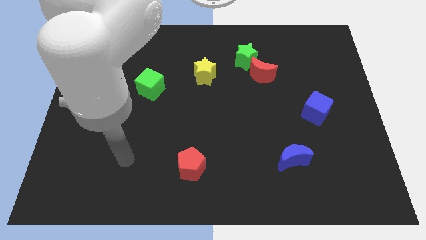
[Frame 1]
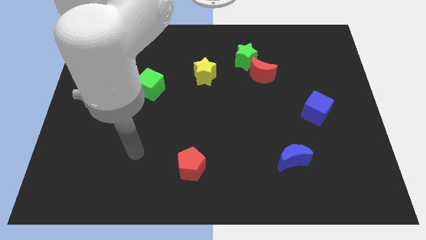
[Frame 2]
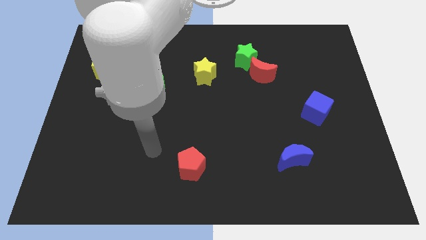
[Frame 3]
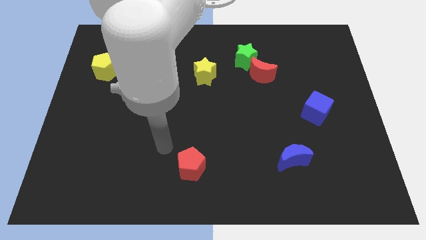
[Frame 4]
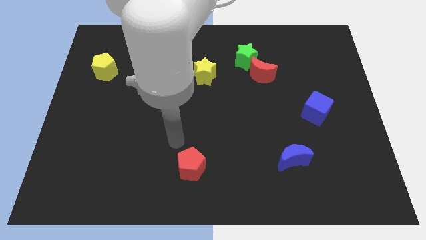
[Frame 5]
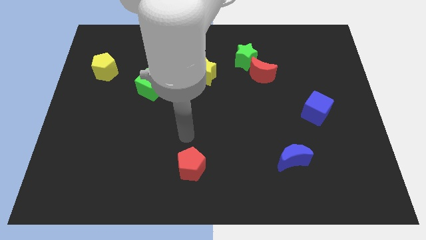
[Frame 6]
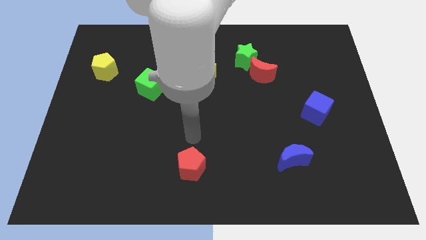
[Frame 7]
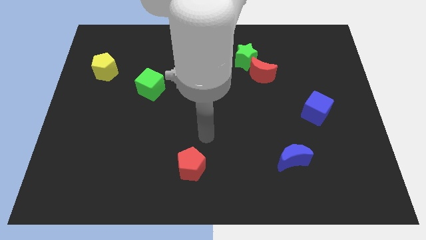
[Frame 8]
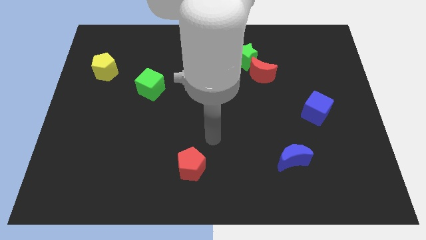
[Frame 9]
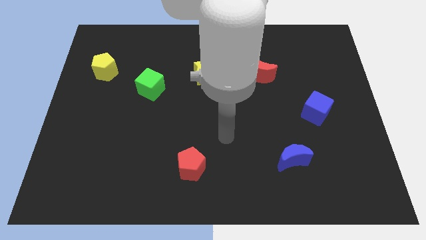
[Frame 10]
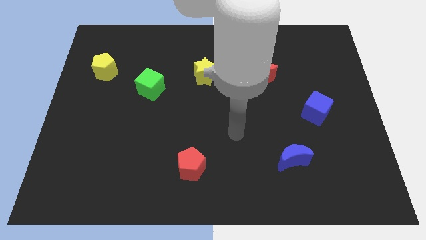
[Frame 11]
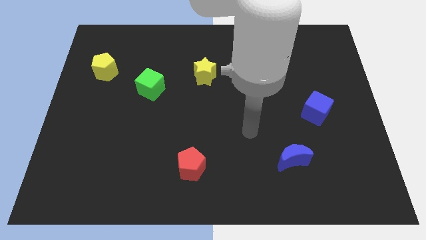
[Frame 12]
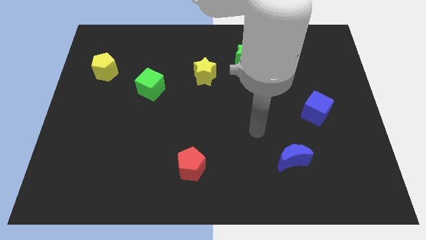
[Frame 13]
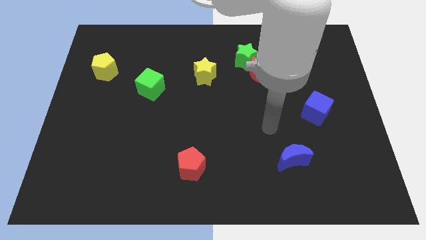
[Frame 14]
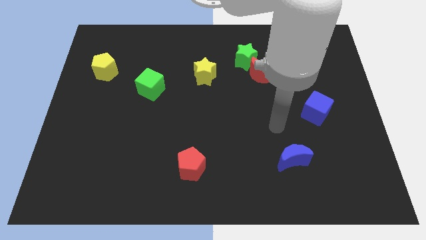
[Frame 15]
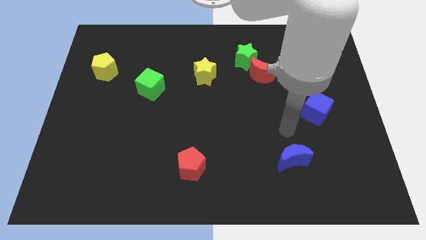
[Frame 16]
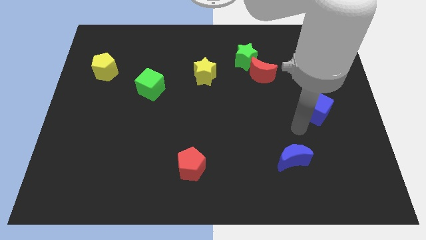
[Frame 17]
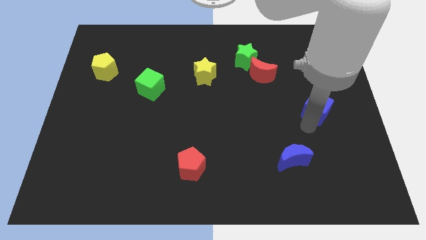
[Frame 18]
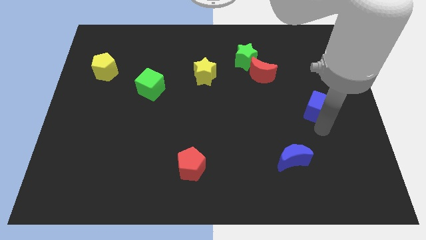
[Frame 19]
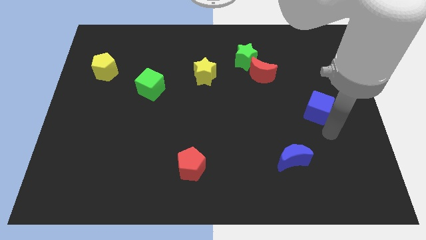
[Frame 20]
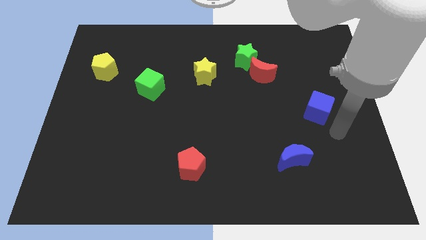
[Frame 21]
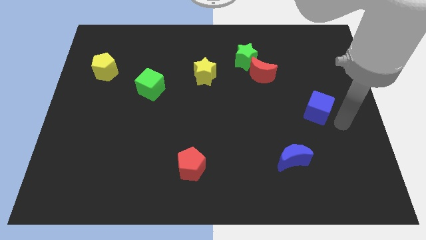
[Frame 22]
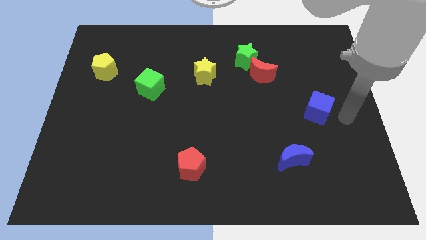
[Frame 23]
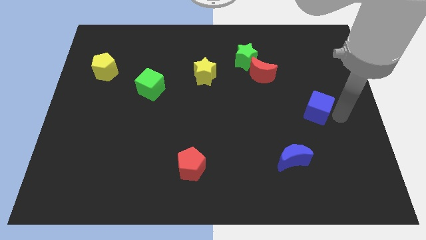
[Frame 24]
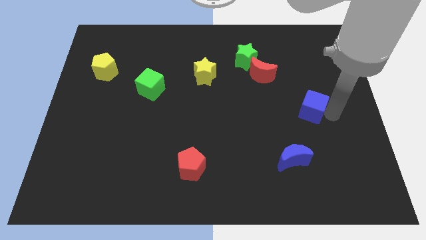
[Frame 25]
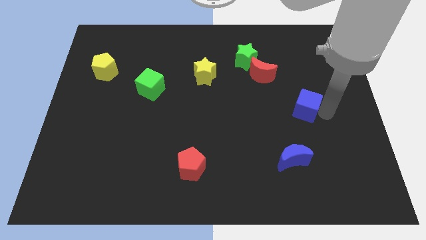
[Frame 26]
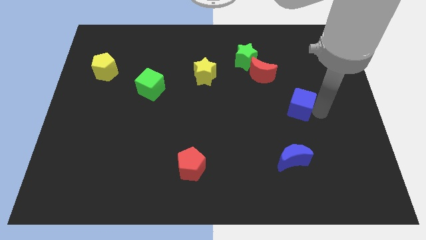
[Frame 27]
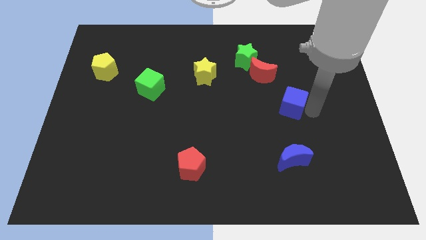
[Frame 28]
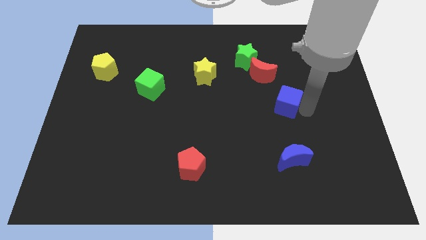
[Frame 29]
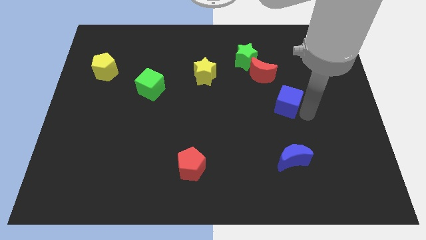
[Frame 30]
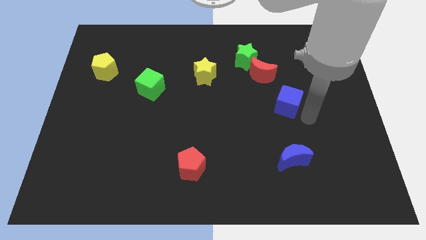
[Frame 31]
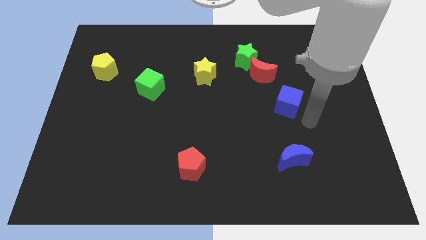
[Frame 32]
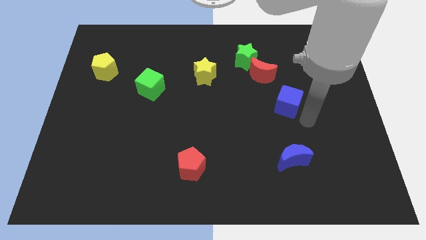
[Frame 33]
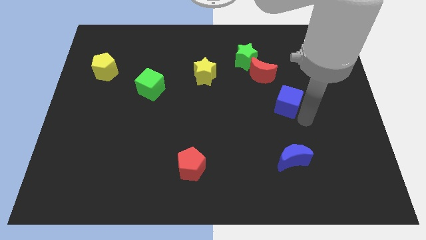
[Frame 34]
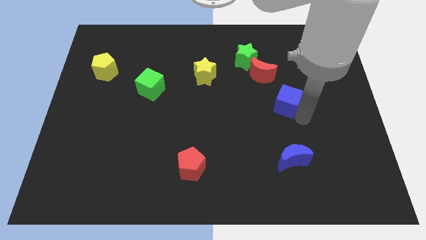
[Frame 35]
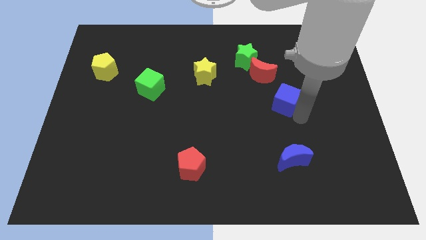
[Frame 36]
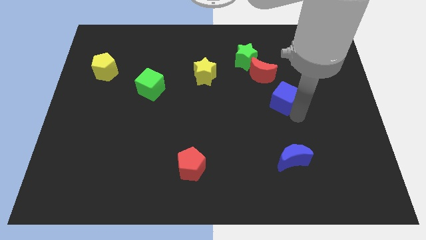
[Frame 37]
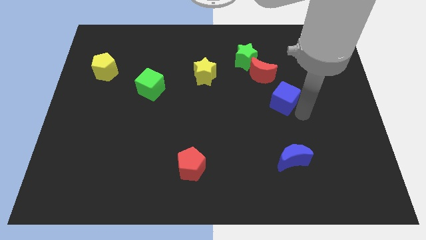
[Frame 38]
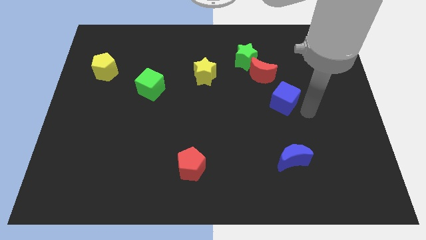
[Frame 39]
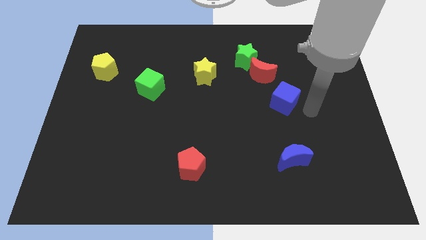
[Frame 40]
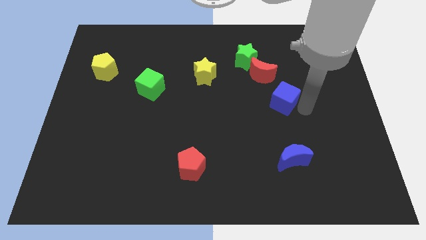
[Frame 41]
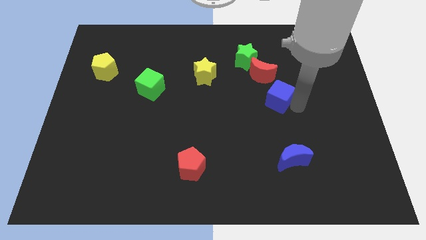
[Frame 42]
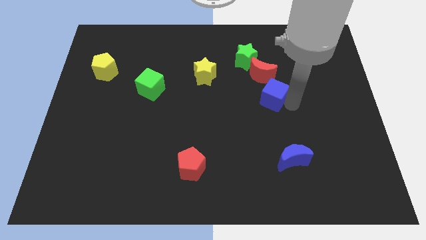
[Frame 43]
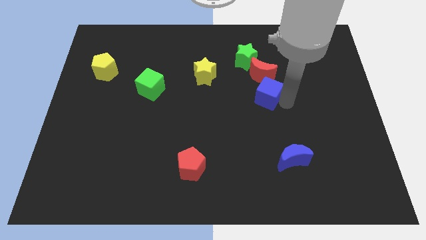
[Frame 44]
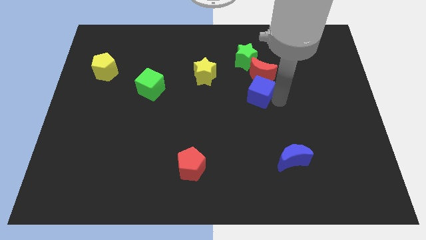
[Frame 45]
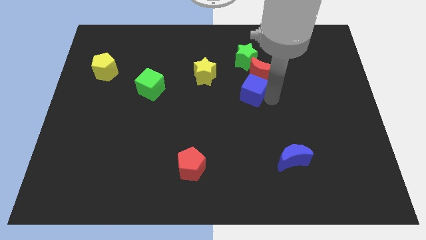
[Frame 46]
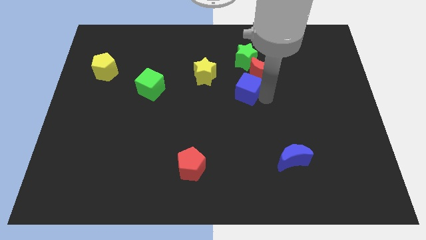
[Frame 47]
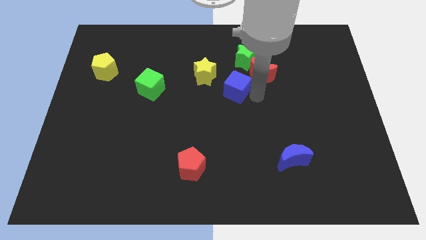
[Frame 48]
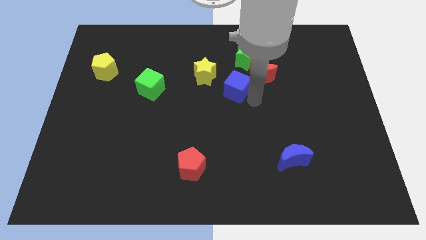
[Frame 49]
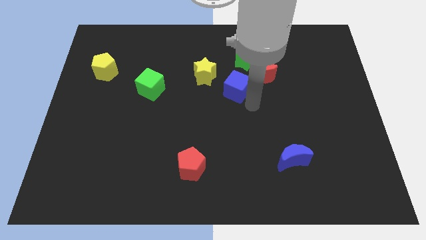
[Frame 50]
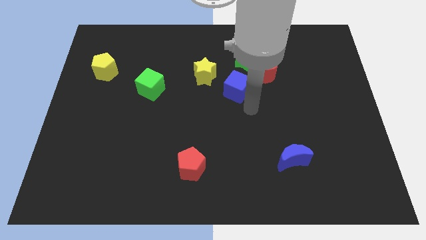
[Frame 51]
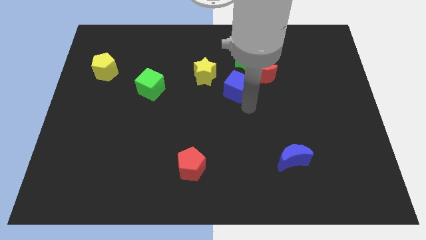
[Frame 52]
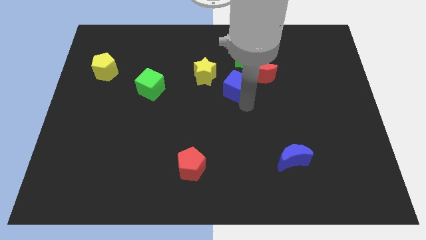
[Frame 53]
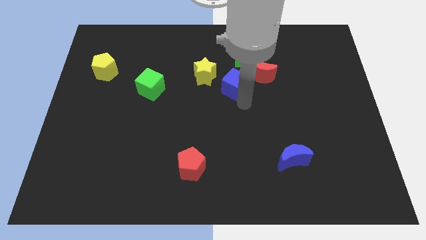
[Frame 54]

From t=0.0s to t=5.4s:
move the blue cube to the bottom left of the green star

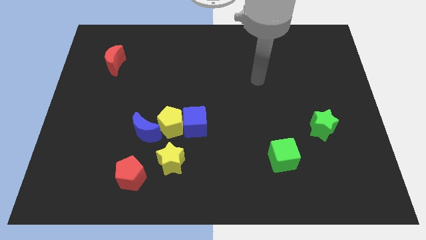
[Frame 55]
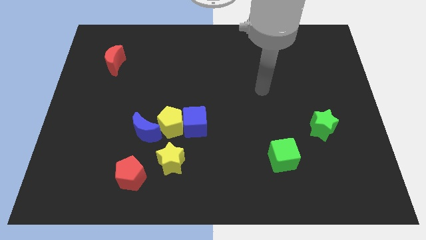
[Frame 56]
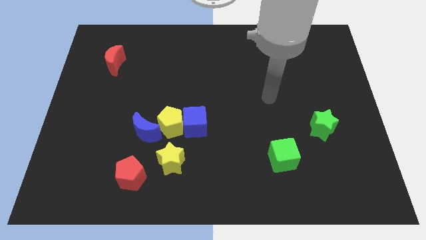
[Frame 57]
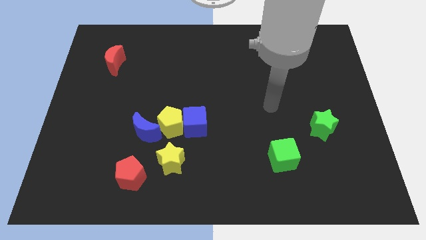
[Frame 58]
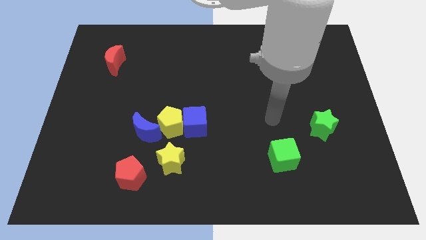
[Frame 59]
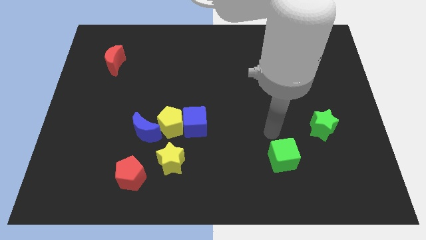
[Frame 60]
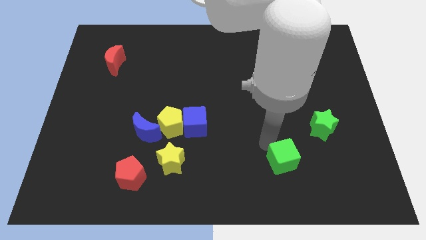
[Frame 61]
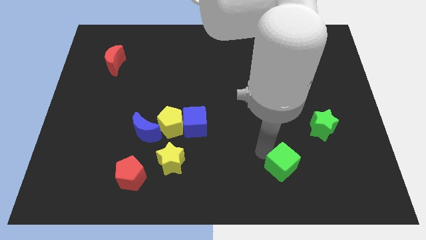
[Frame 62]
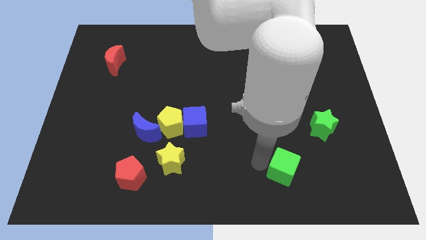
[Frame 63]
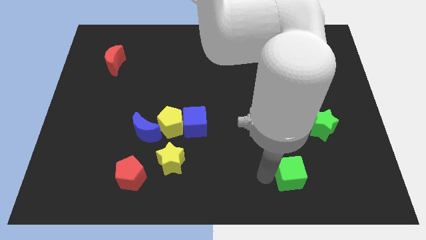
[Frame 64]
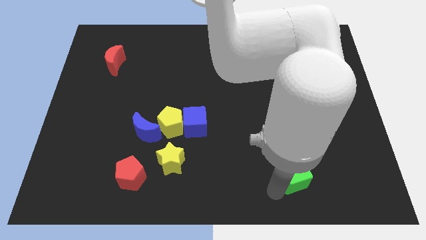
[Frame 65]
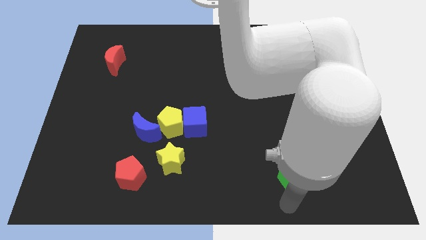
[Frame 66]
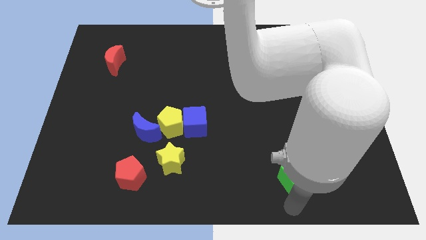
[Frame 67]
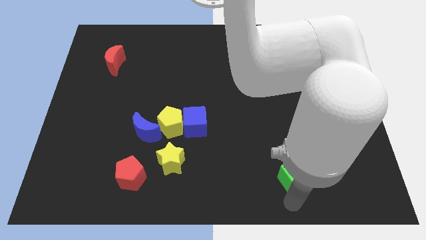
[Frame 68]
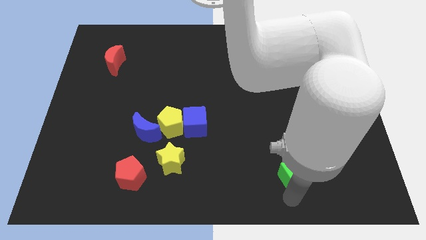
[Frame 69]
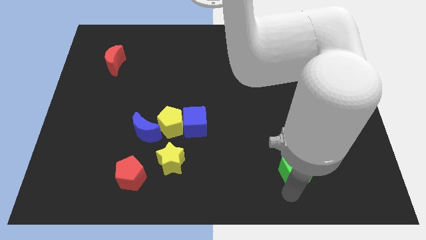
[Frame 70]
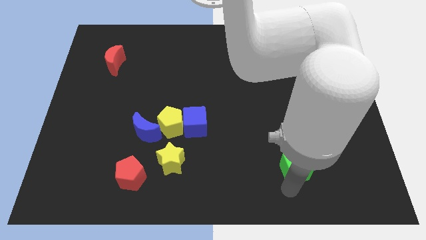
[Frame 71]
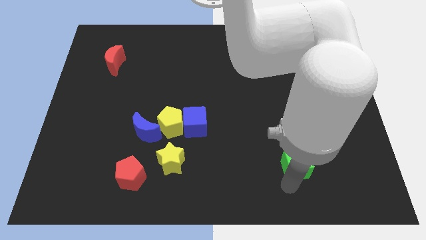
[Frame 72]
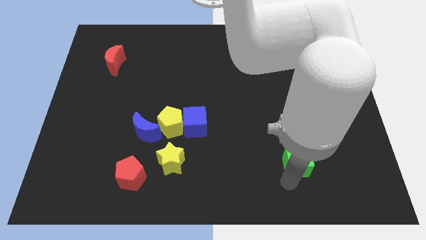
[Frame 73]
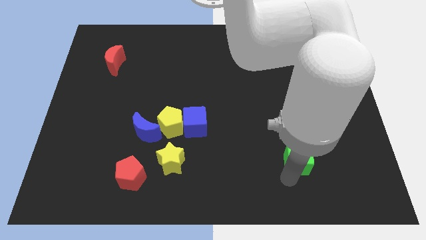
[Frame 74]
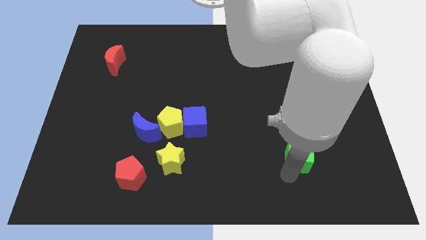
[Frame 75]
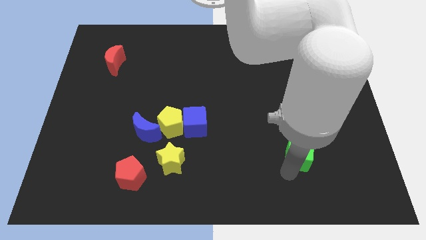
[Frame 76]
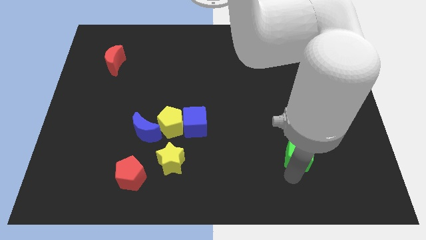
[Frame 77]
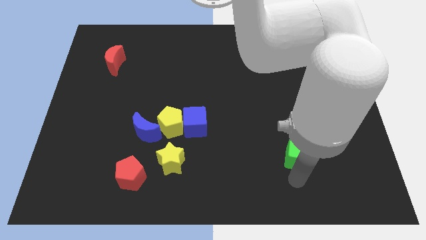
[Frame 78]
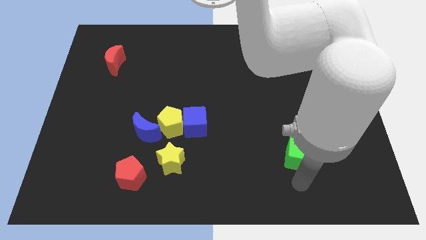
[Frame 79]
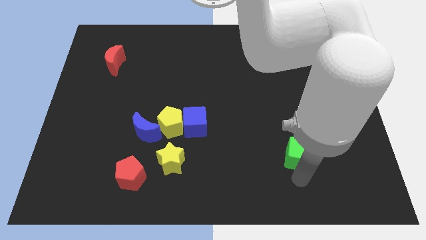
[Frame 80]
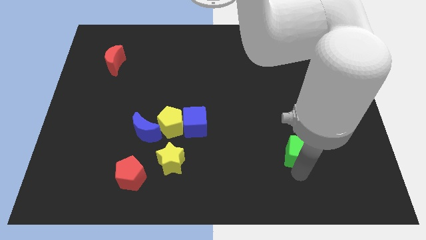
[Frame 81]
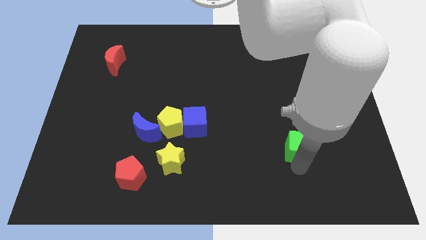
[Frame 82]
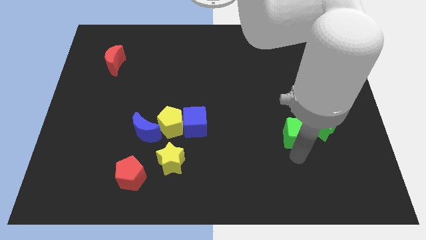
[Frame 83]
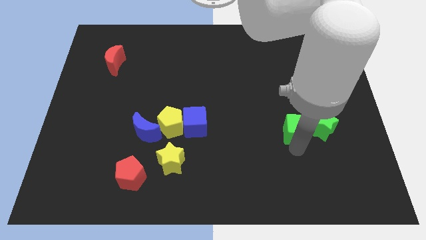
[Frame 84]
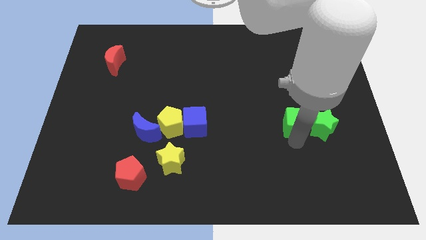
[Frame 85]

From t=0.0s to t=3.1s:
slide the green cube to the top left of the green star
